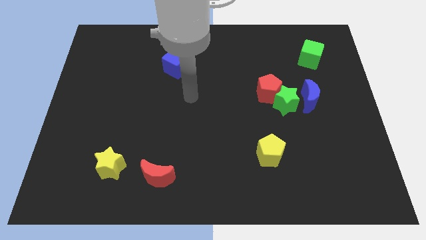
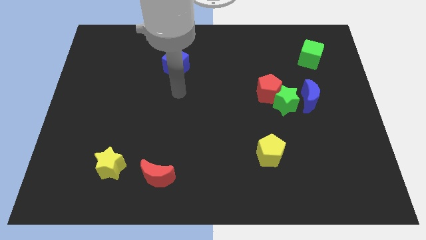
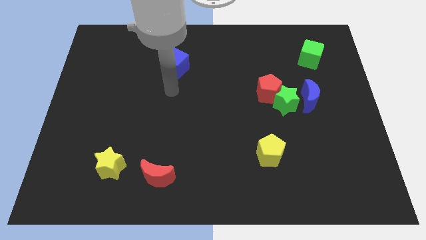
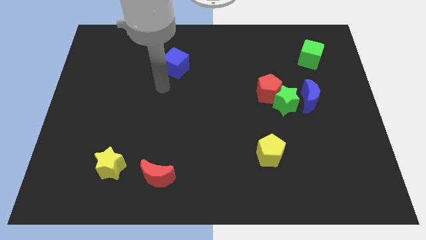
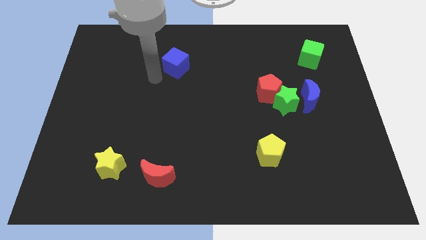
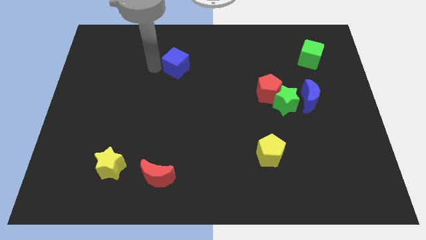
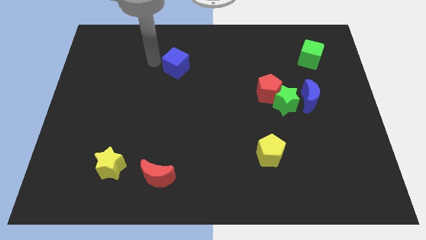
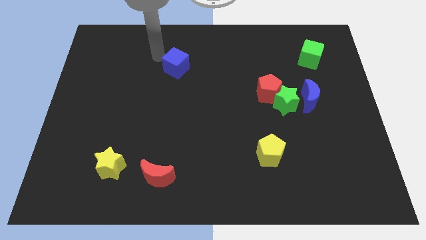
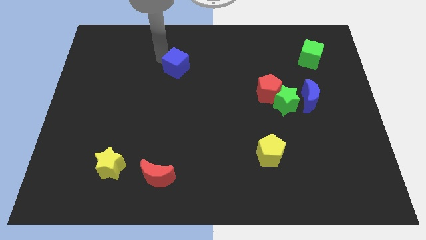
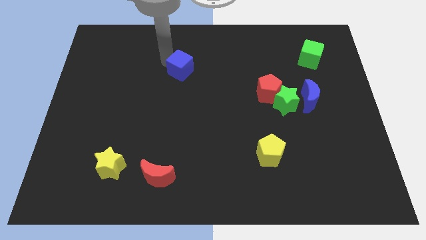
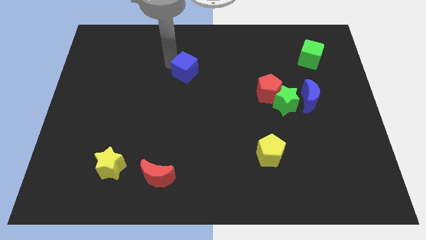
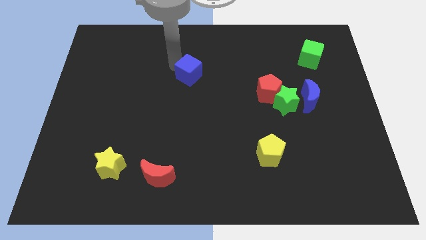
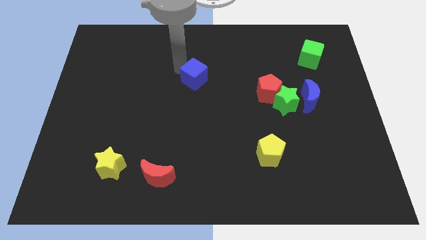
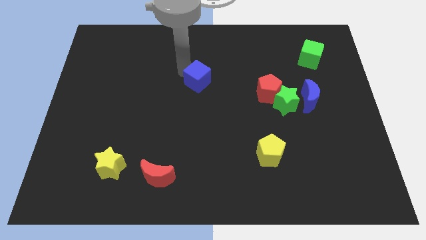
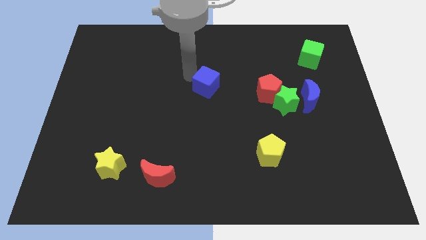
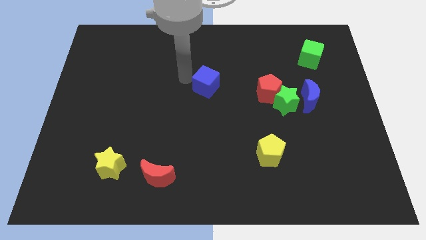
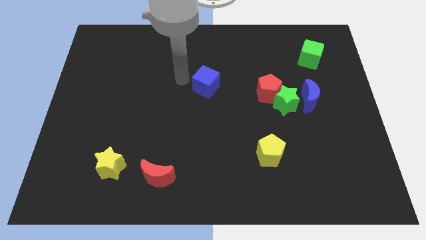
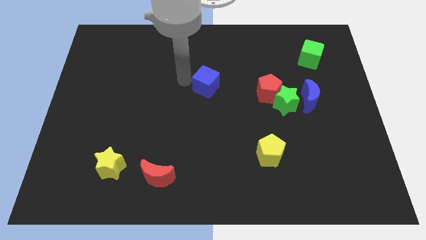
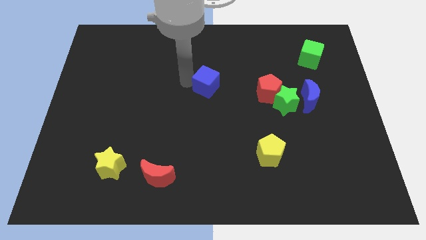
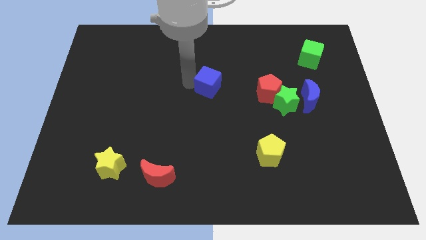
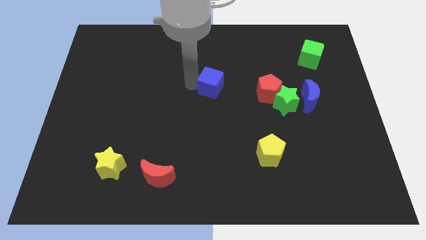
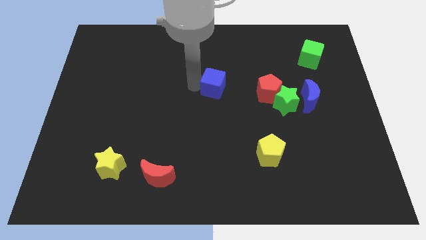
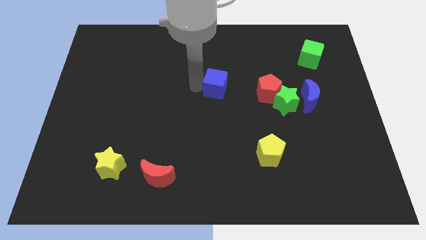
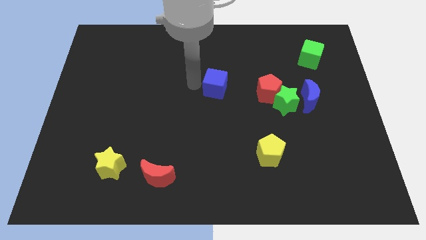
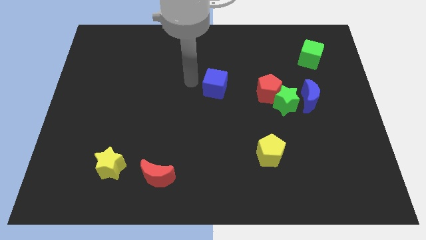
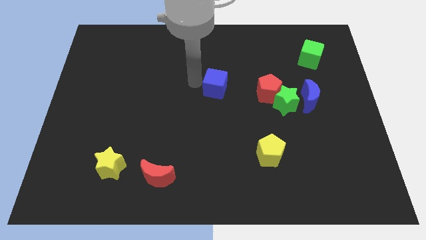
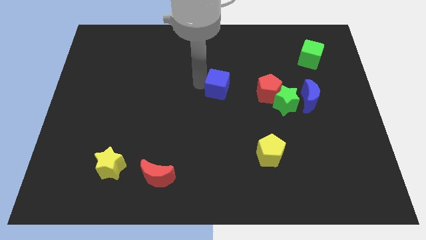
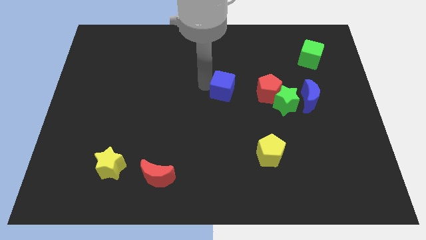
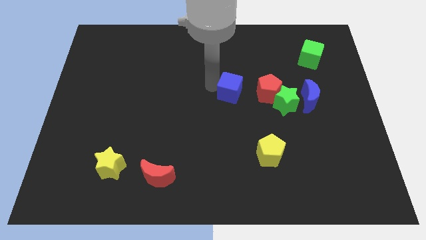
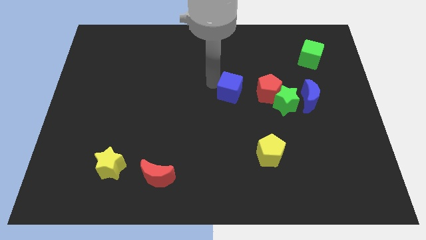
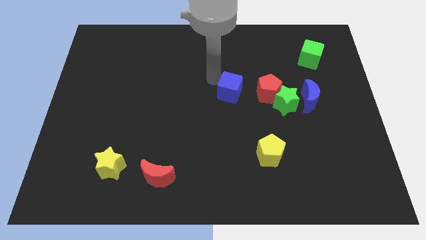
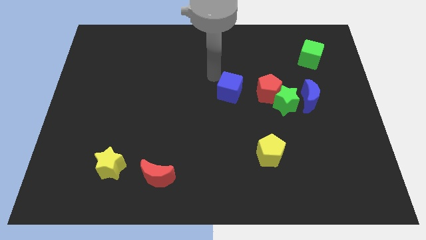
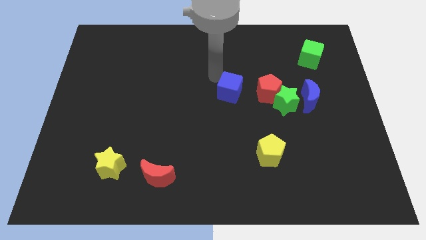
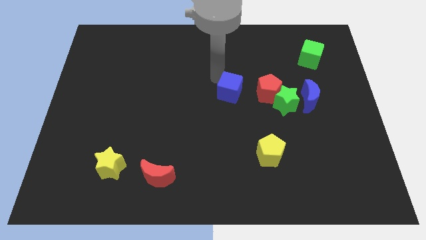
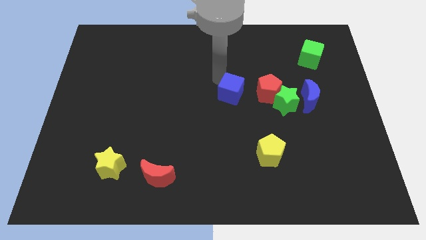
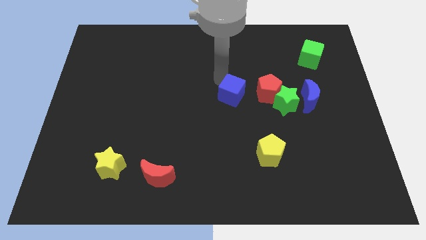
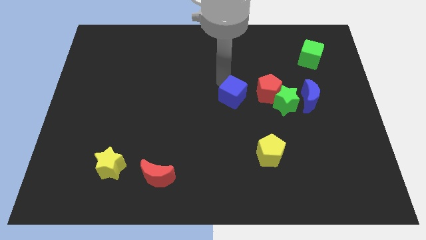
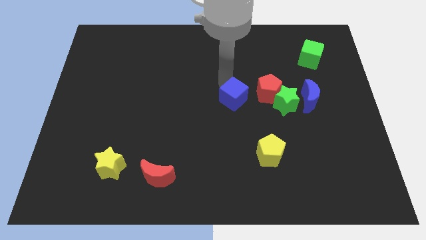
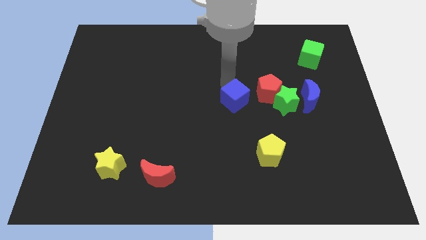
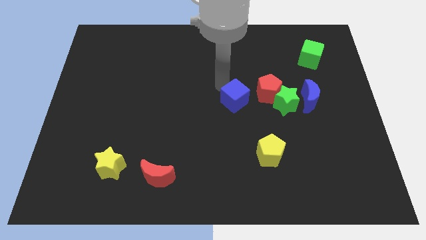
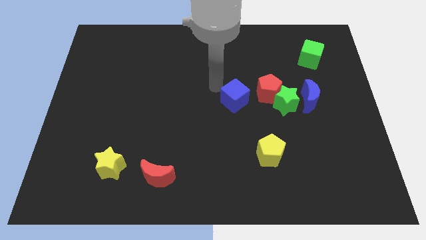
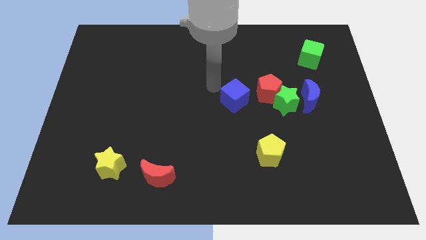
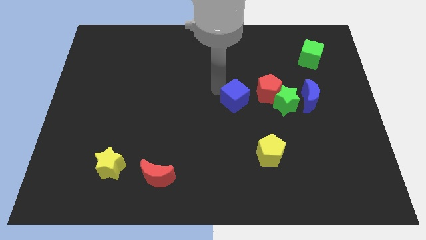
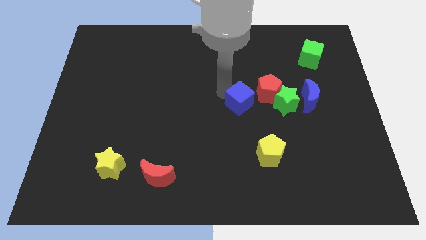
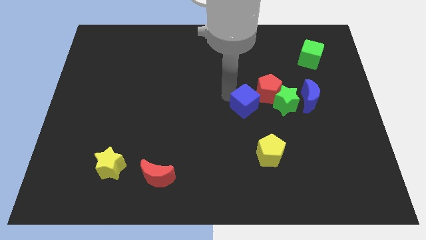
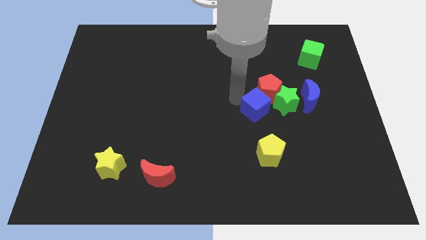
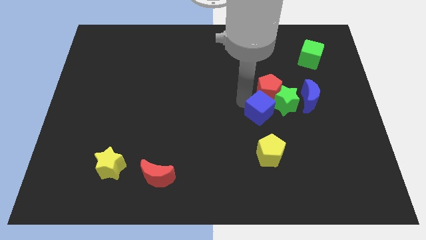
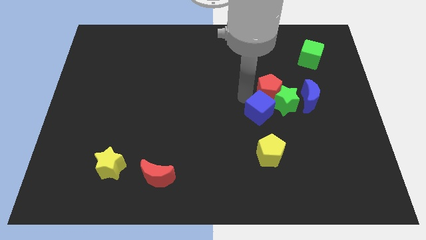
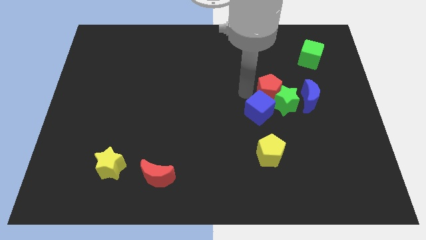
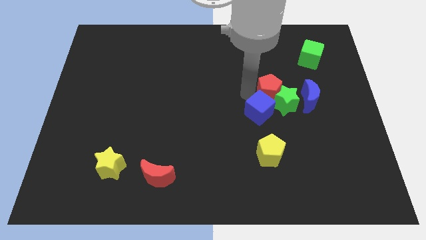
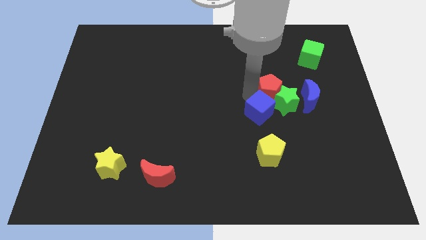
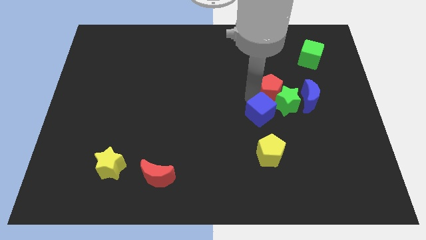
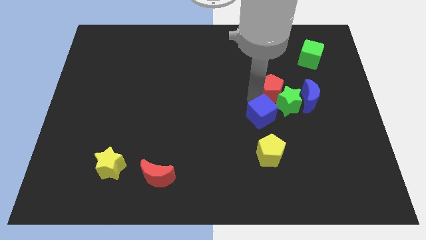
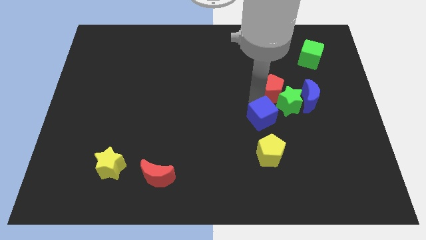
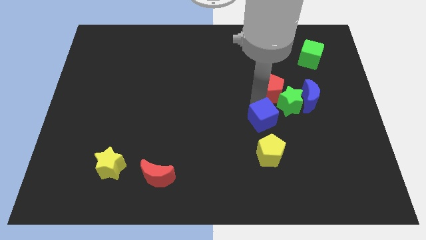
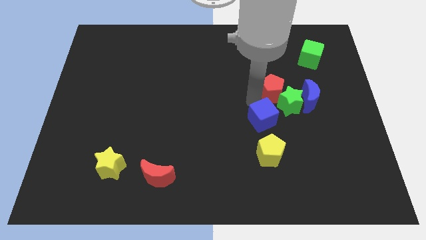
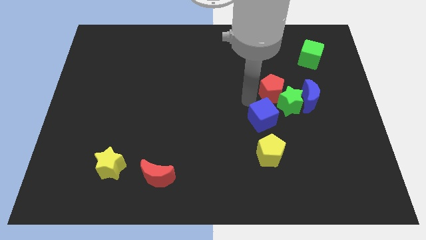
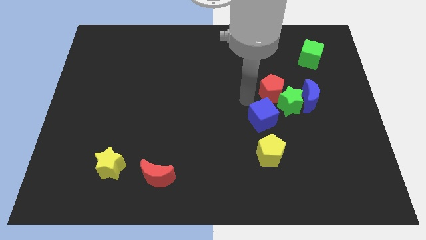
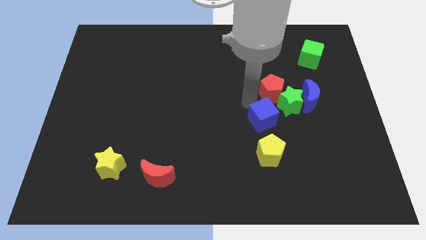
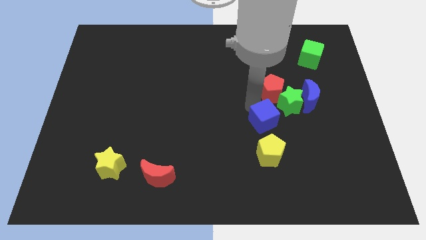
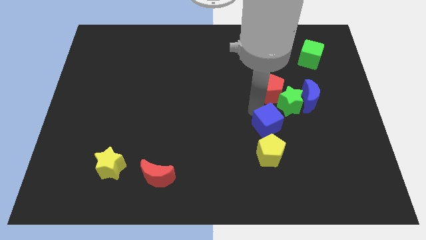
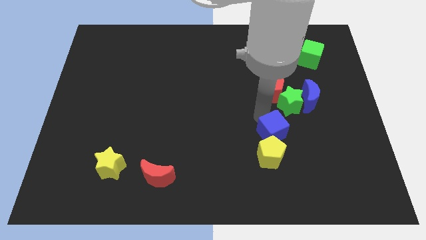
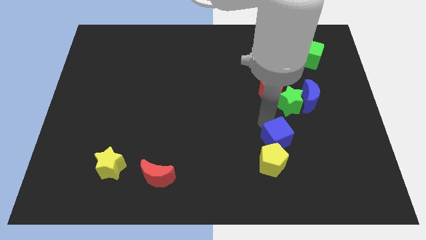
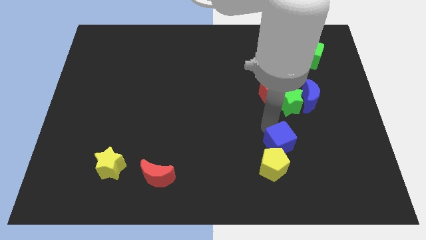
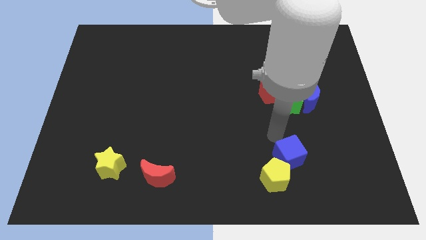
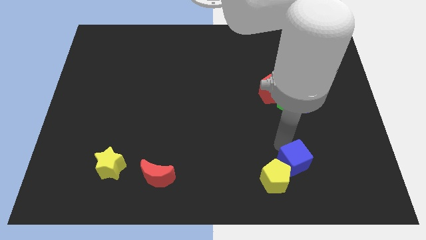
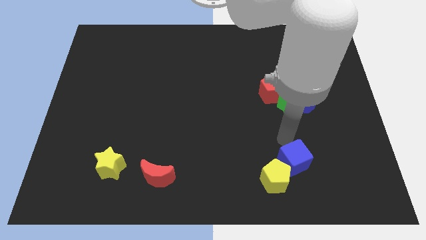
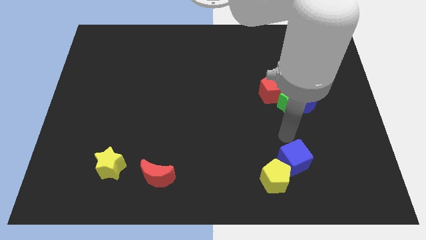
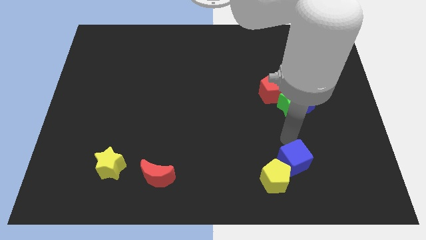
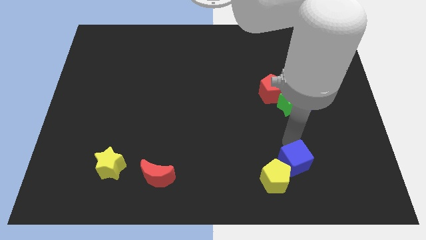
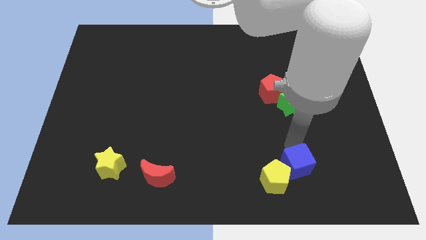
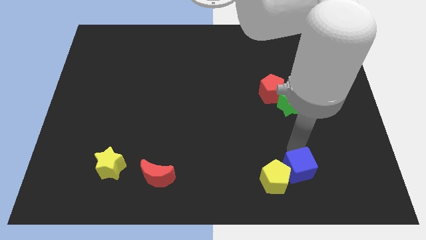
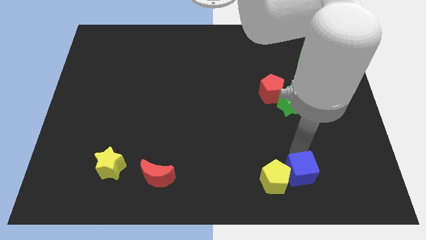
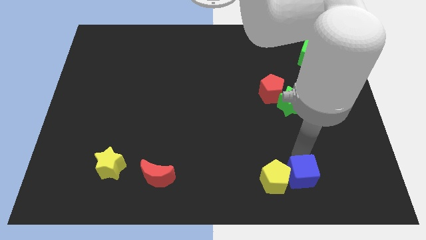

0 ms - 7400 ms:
push the blue cube to the bottom right of the yellow pentagon

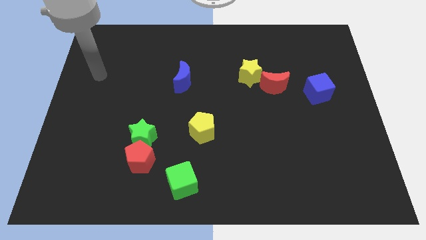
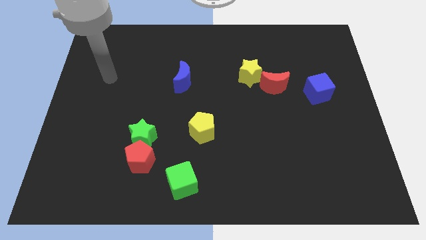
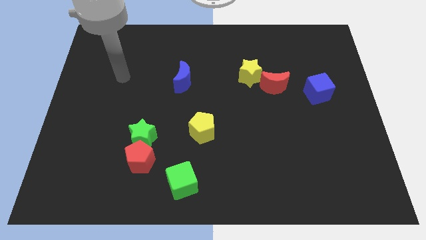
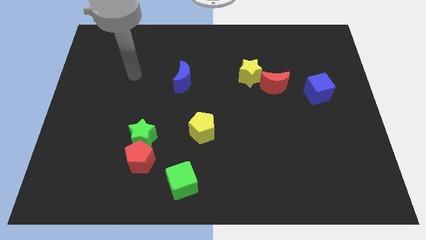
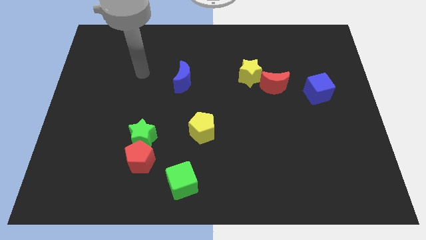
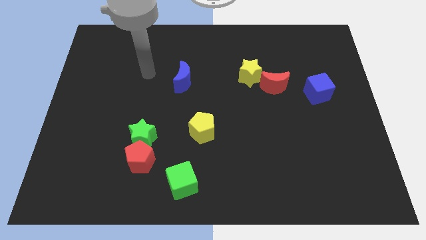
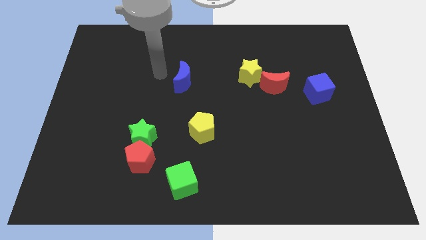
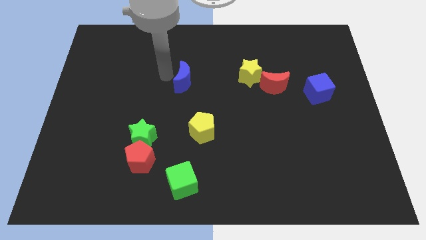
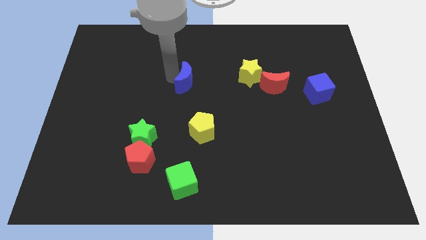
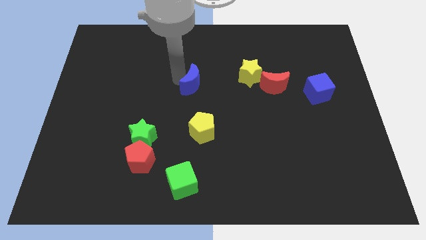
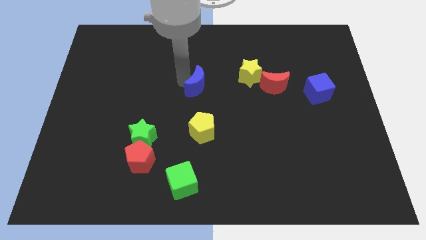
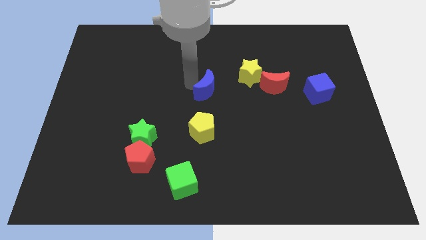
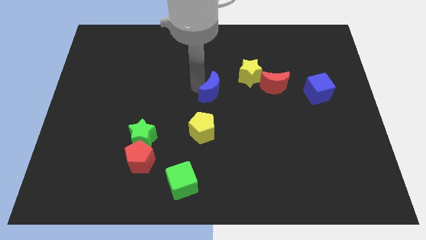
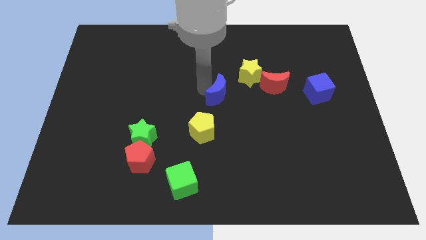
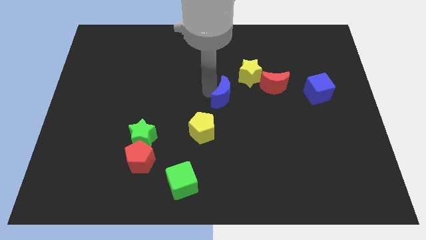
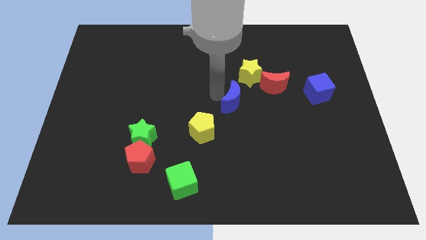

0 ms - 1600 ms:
push the blue moon diagonally down and to the left of the red moon
